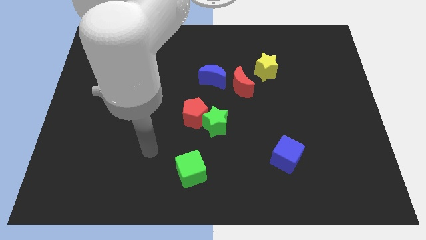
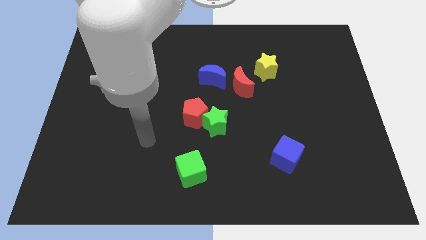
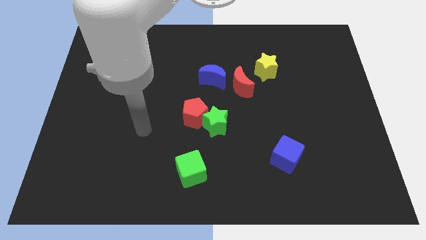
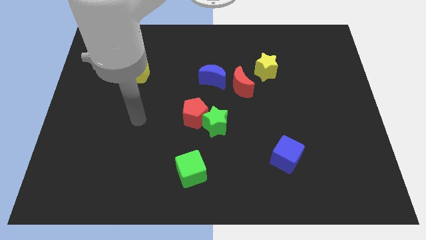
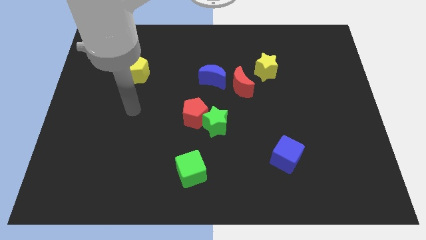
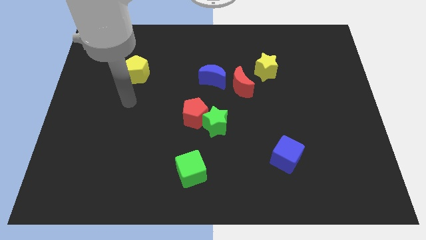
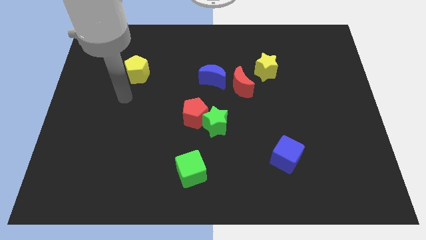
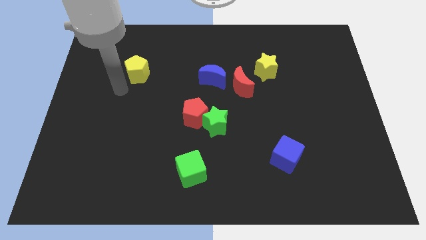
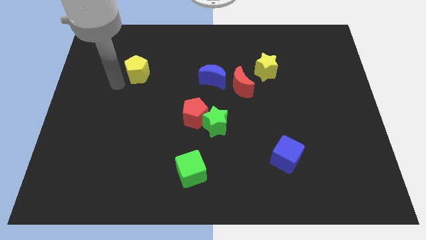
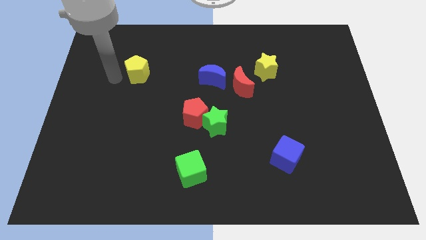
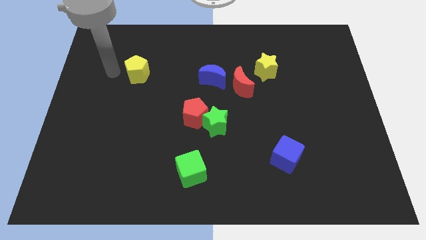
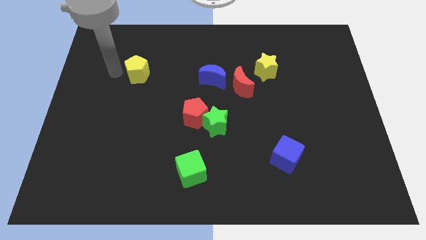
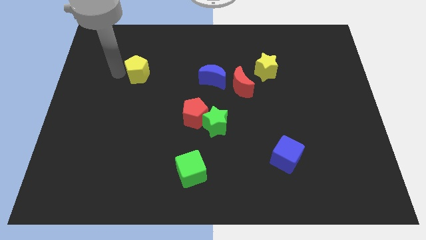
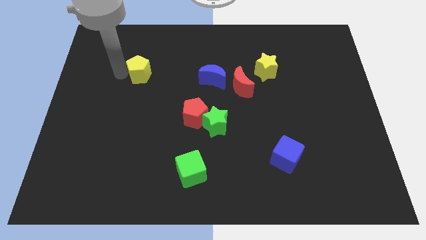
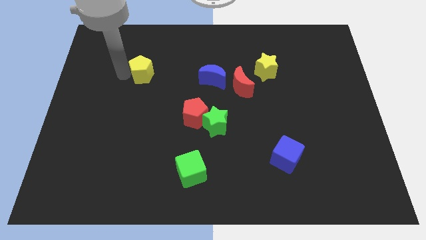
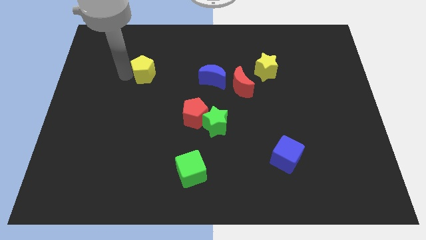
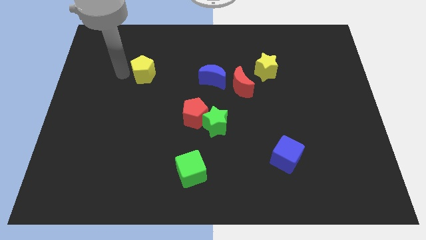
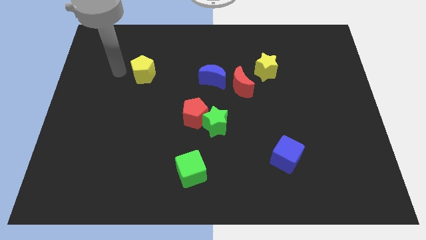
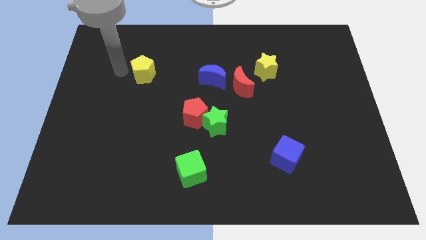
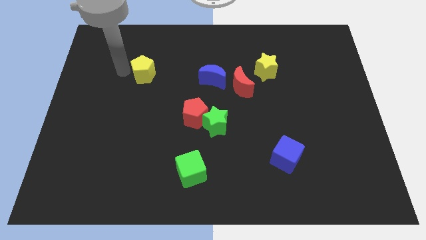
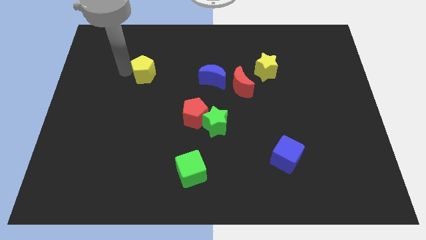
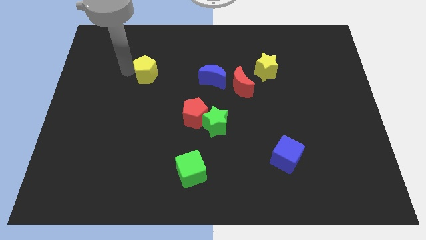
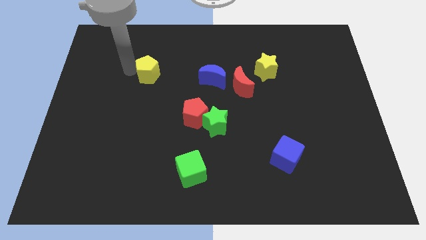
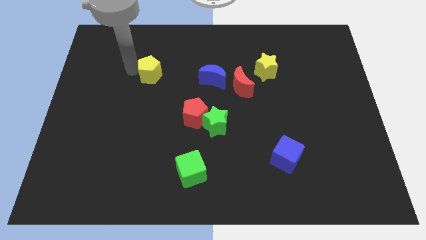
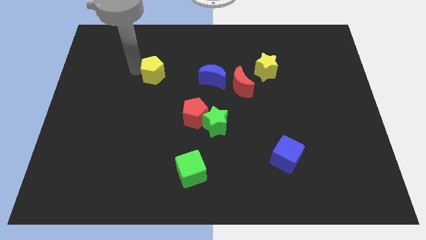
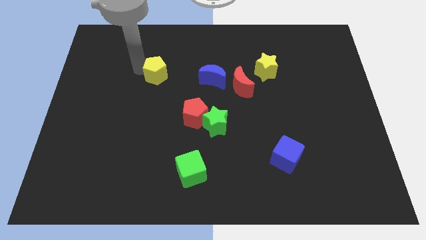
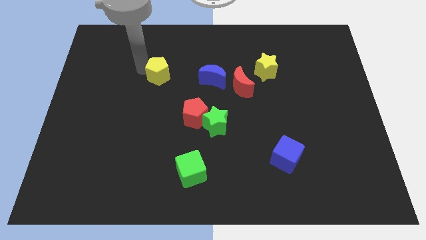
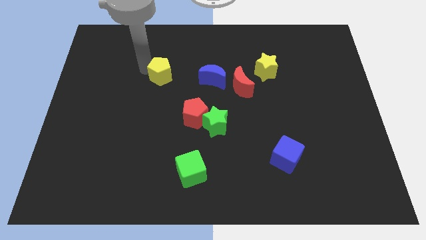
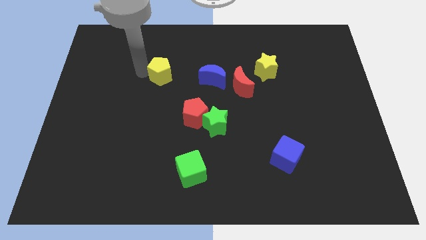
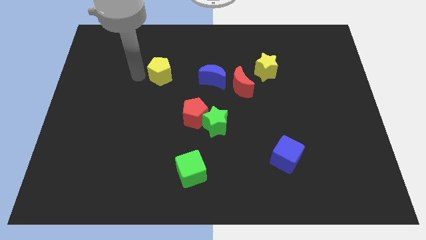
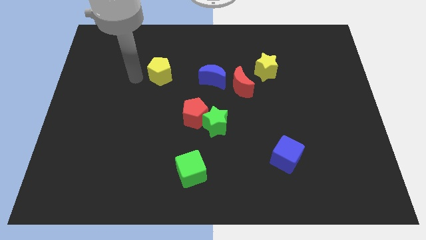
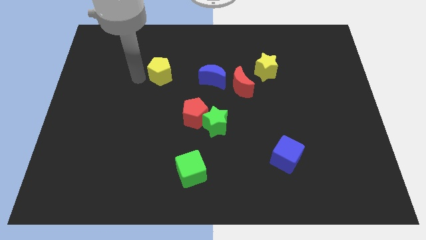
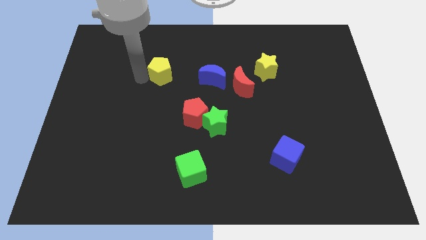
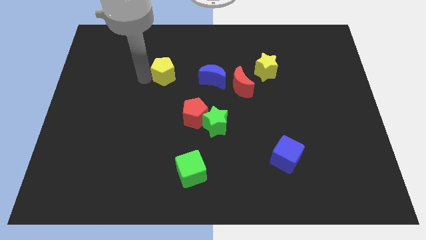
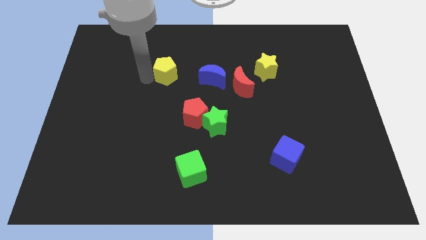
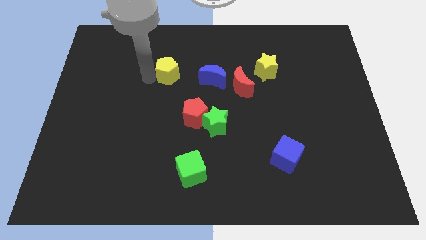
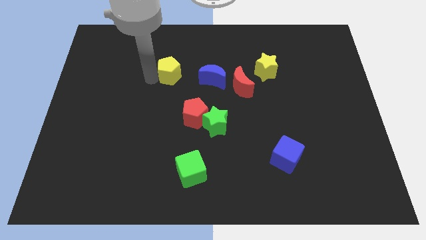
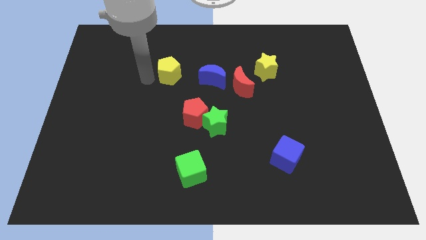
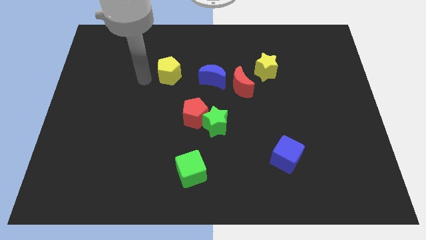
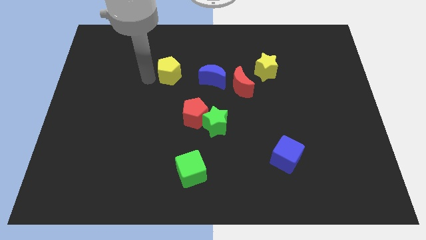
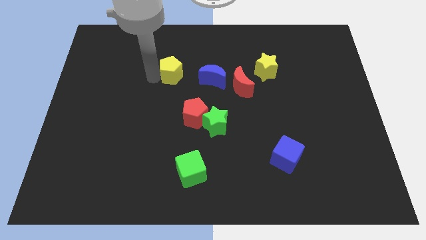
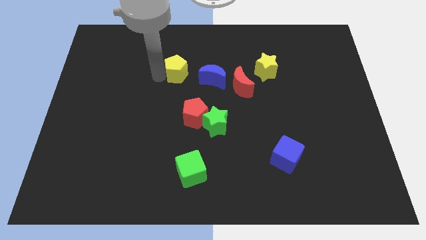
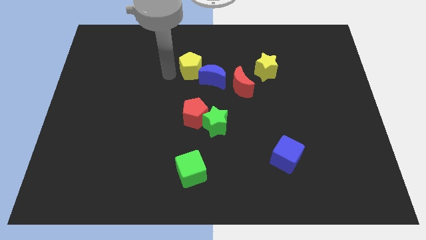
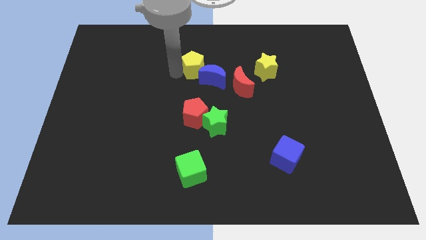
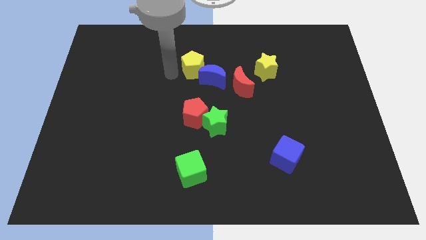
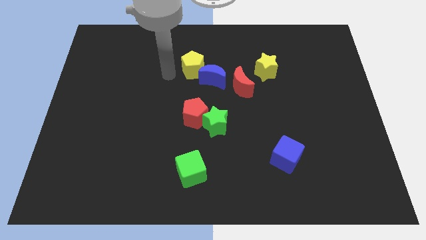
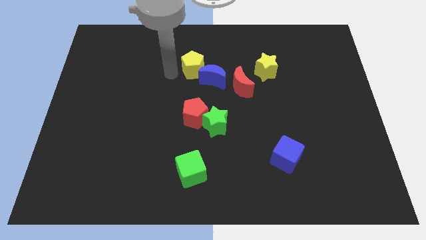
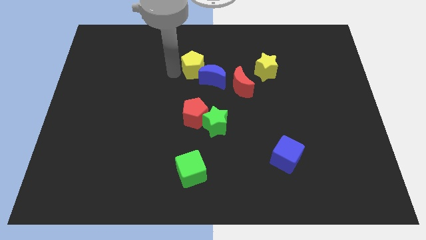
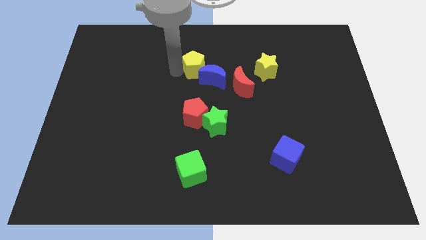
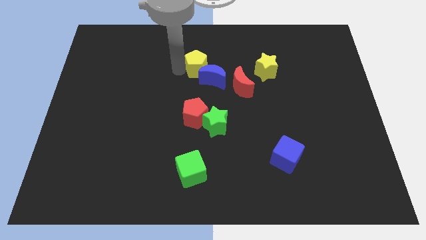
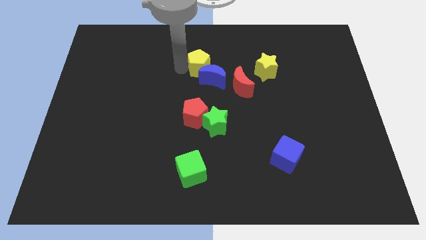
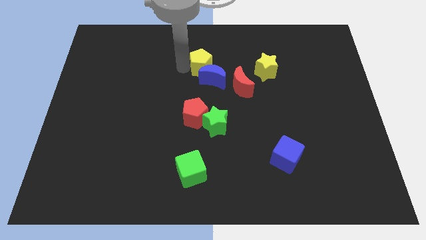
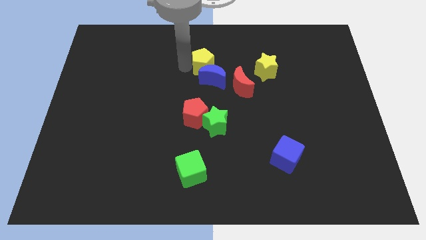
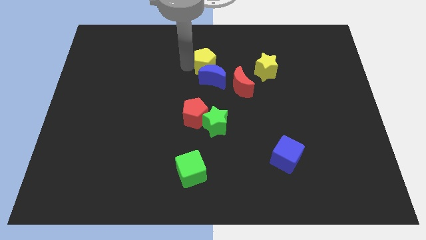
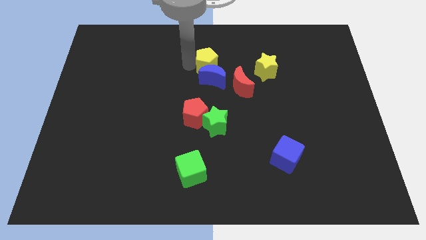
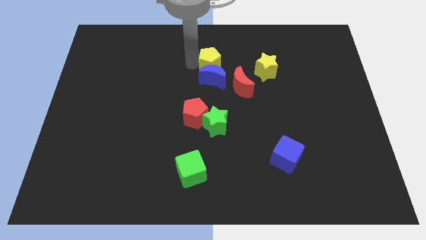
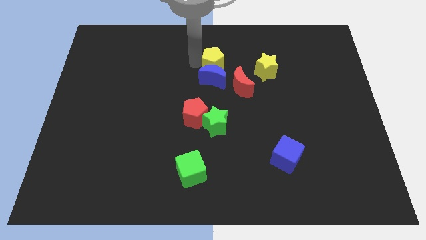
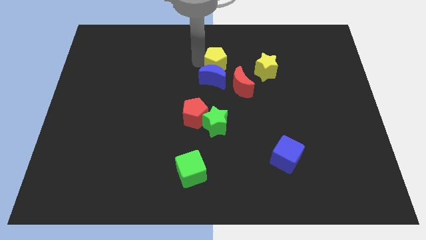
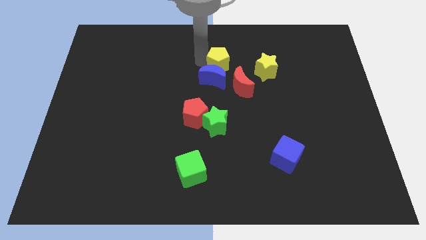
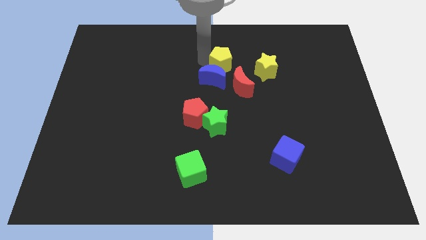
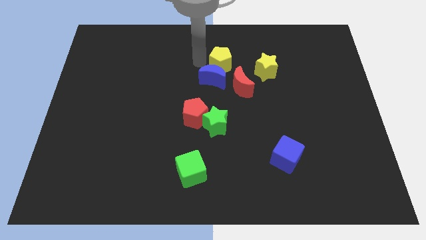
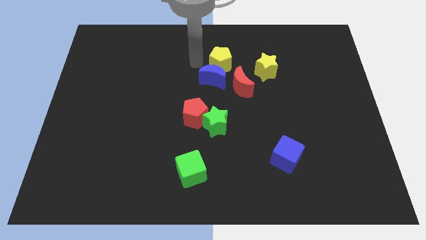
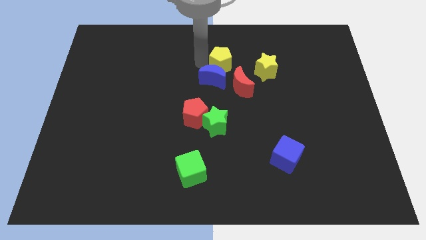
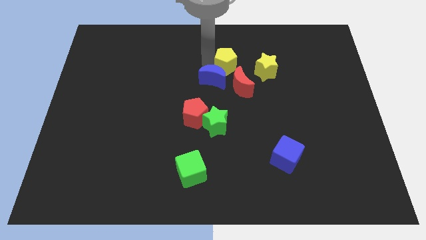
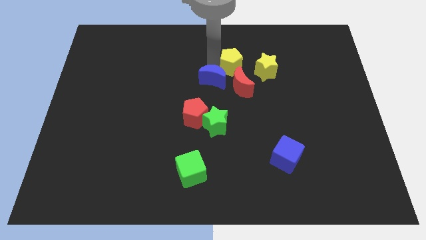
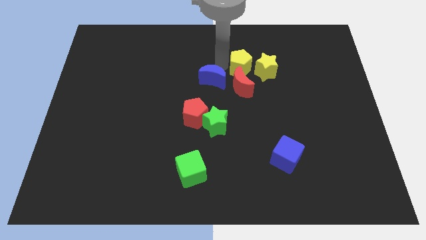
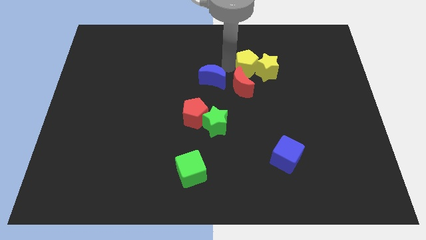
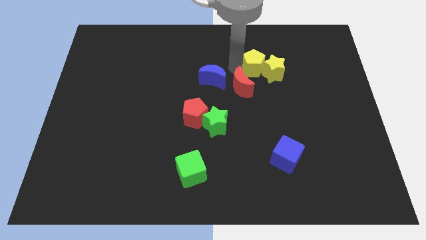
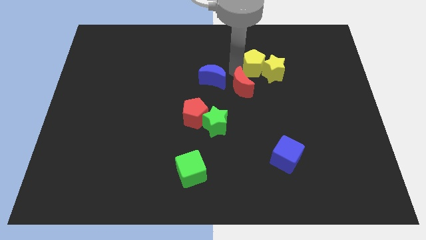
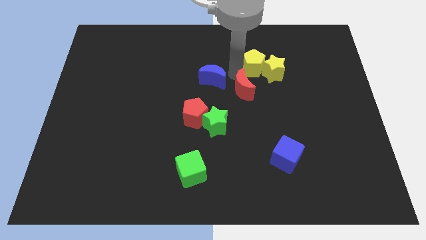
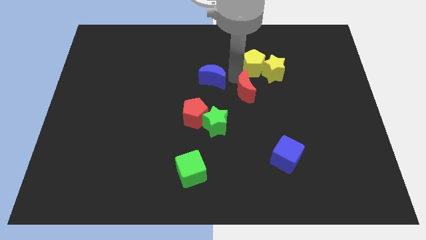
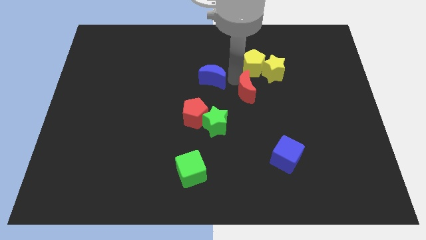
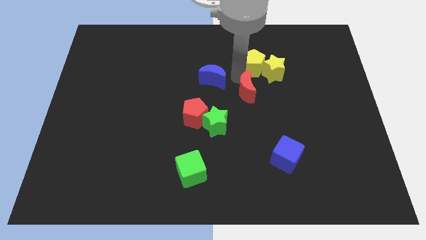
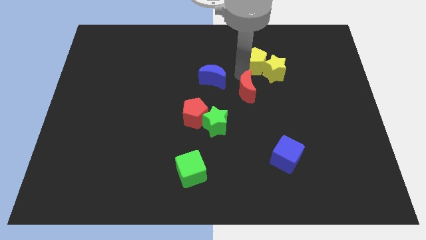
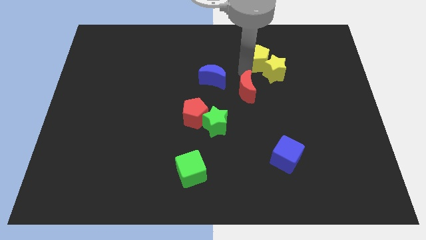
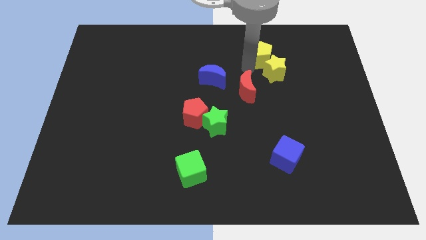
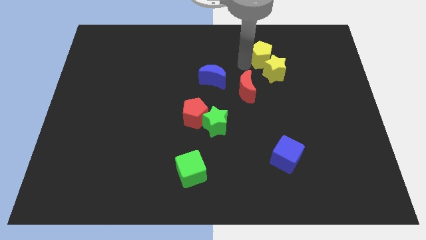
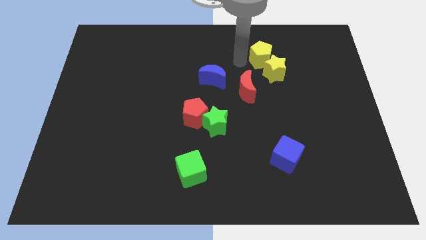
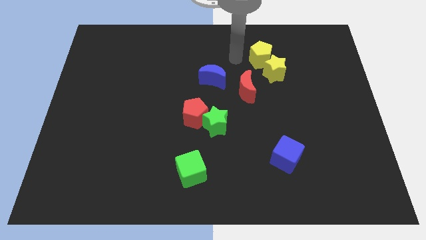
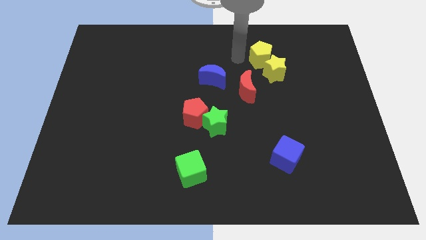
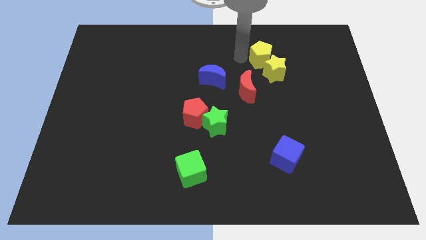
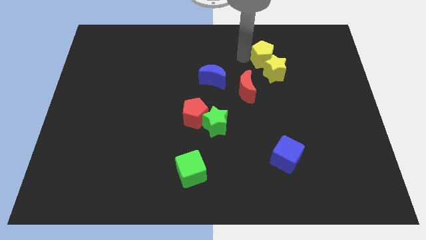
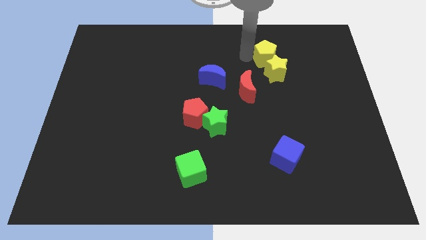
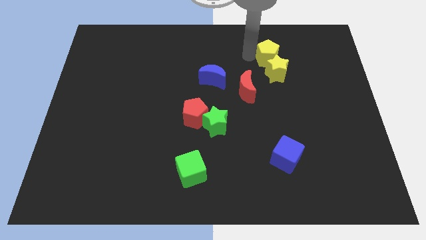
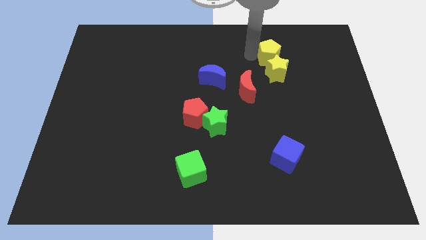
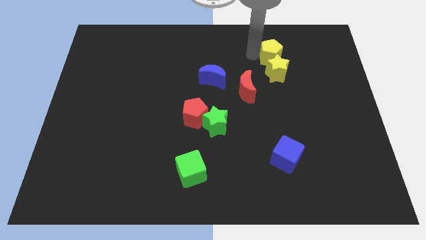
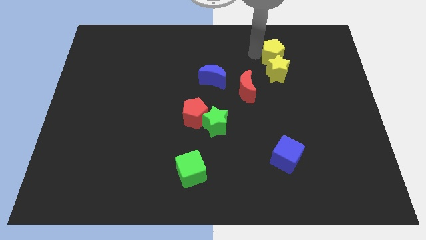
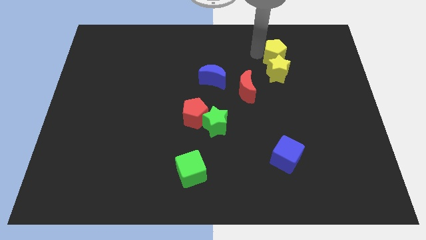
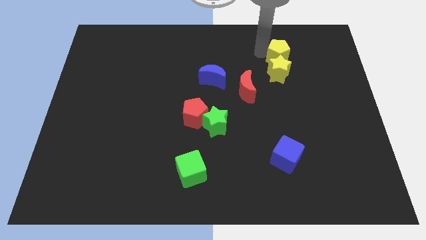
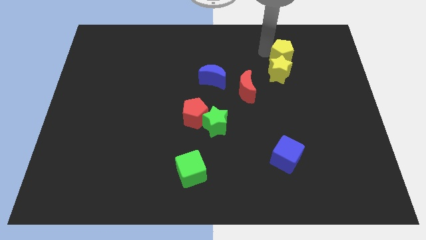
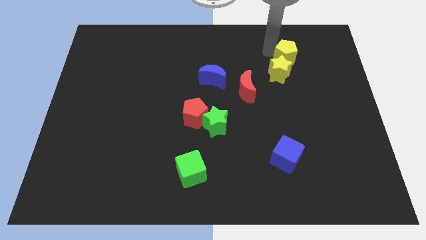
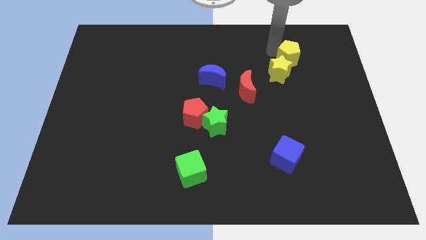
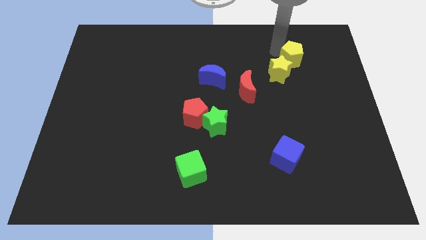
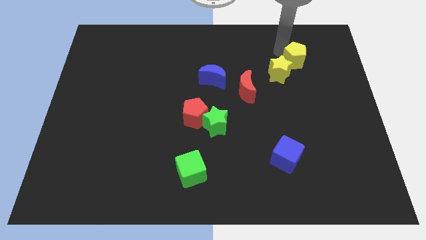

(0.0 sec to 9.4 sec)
push the yellow pentagon to the right side of the yellow star
